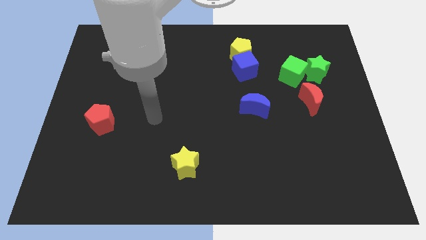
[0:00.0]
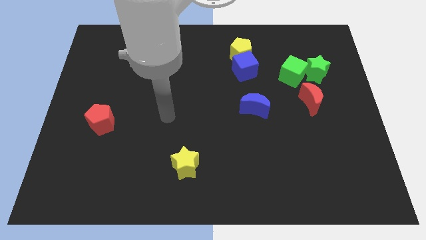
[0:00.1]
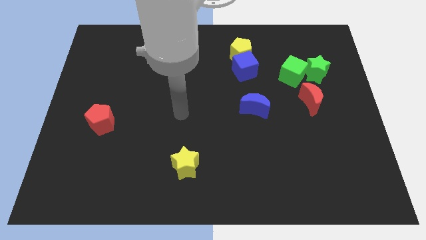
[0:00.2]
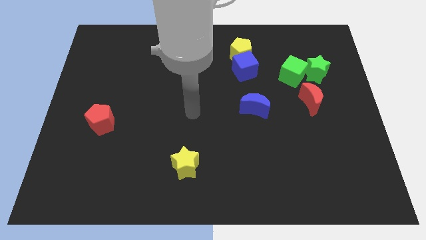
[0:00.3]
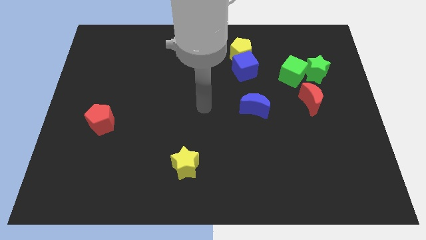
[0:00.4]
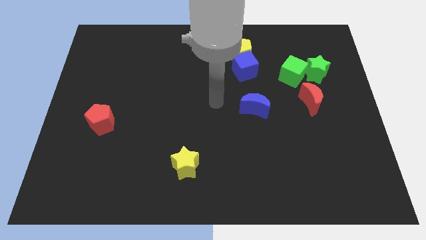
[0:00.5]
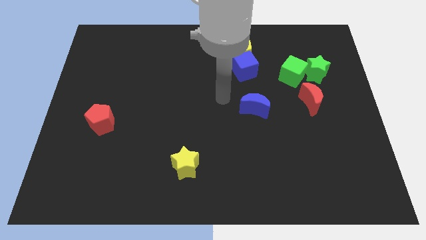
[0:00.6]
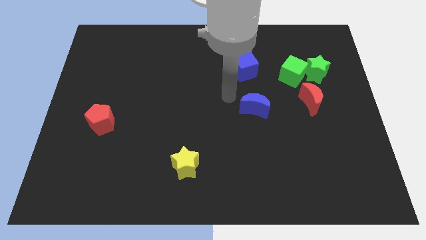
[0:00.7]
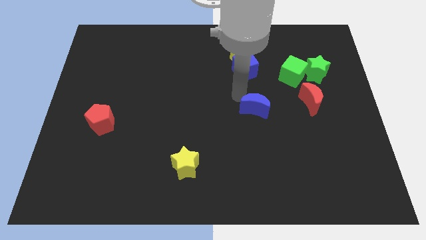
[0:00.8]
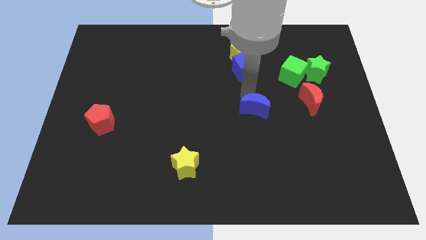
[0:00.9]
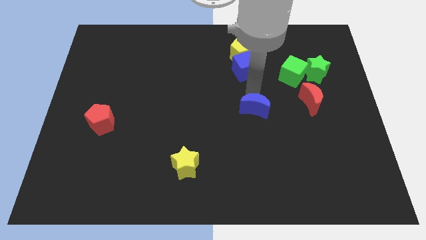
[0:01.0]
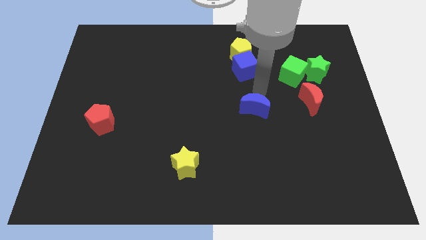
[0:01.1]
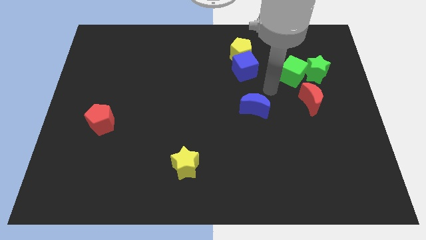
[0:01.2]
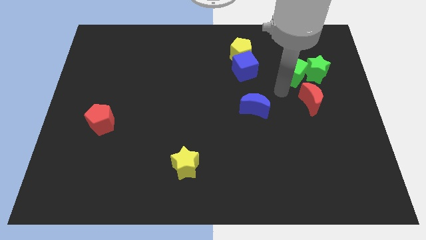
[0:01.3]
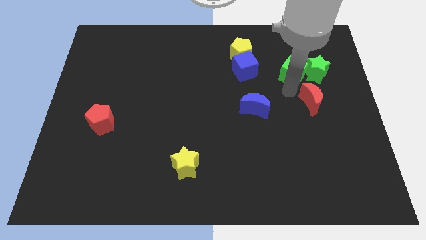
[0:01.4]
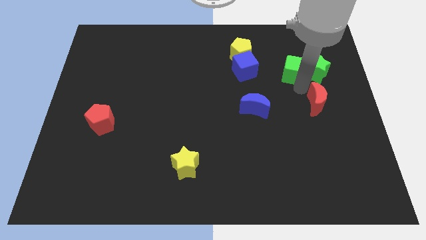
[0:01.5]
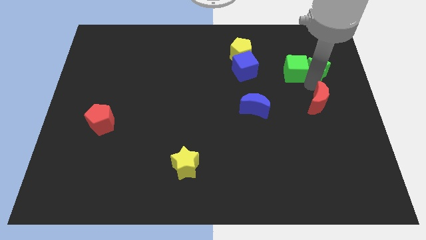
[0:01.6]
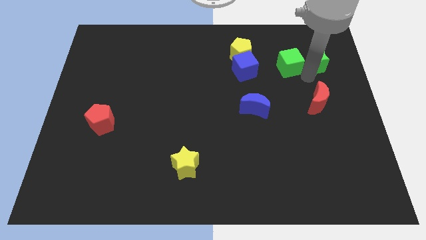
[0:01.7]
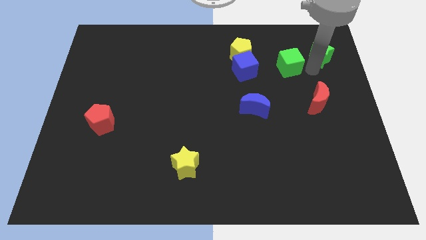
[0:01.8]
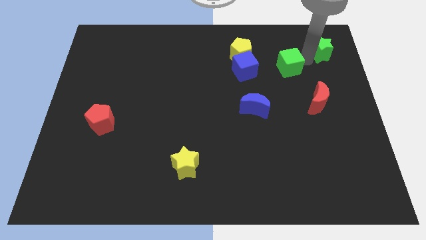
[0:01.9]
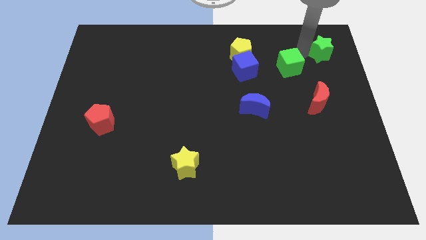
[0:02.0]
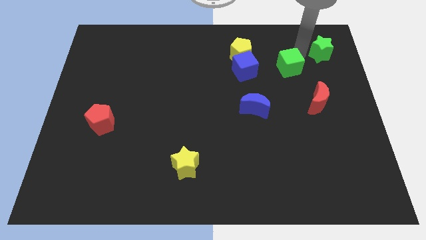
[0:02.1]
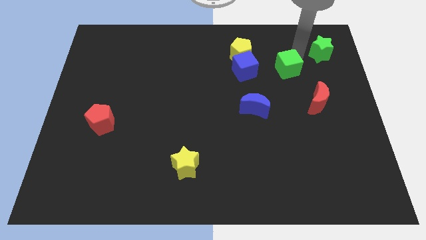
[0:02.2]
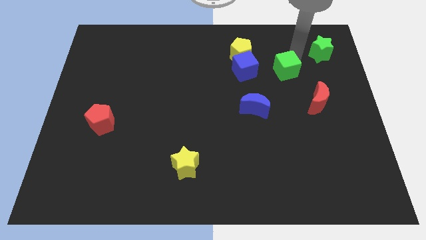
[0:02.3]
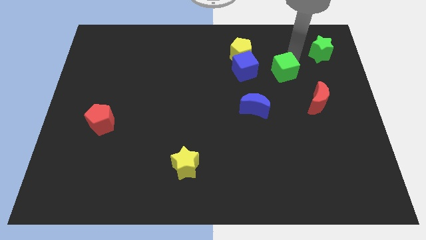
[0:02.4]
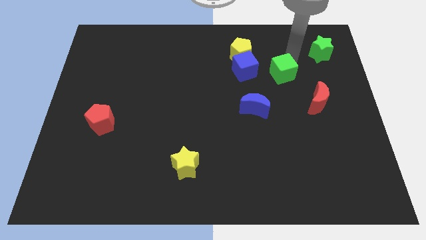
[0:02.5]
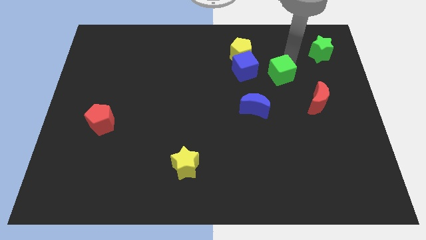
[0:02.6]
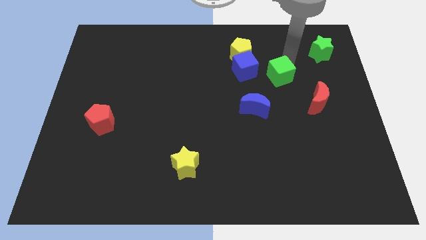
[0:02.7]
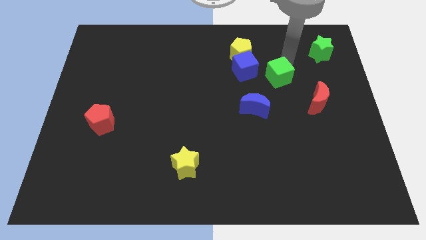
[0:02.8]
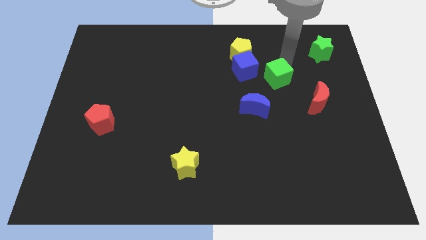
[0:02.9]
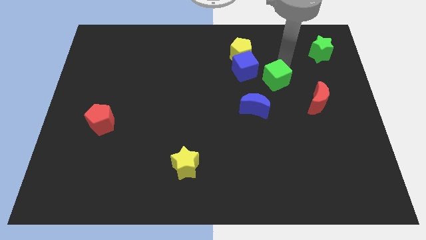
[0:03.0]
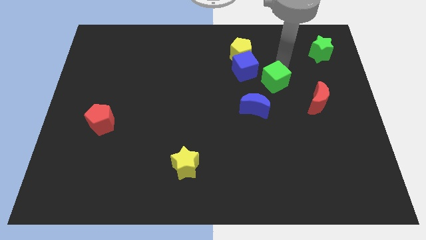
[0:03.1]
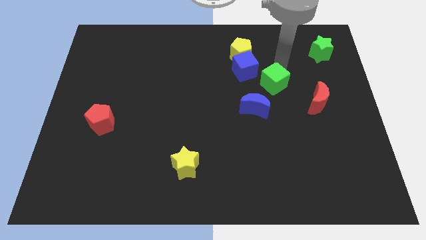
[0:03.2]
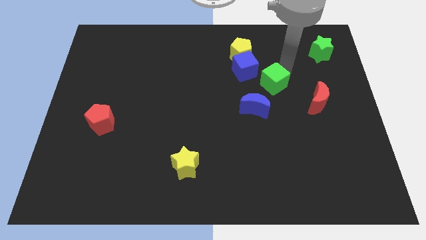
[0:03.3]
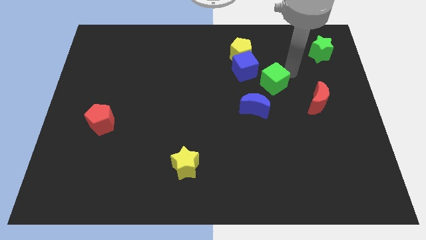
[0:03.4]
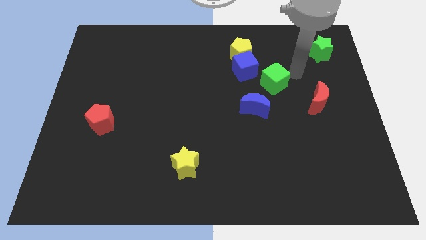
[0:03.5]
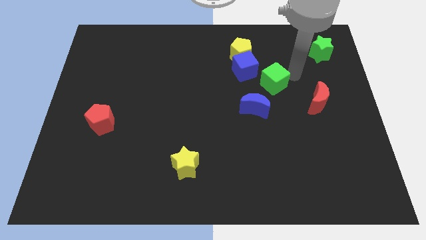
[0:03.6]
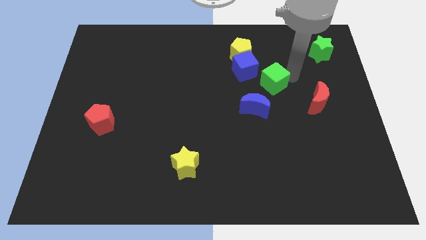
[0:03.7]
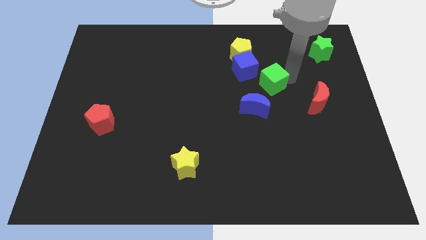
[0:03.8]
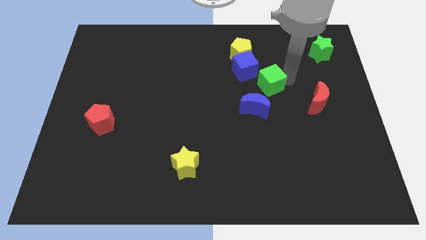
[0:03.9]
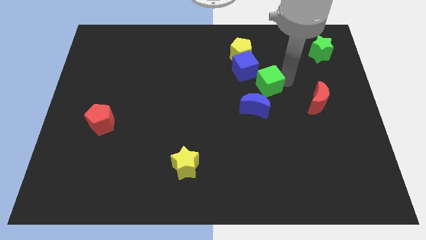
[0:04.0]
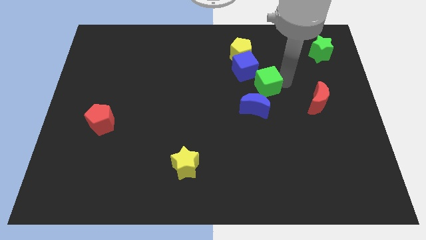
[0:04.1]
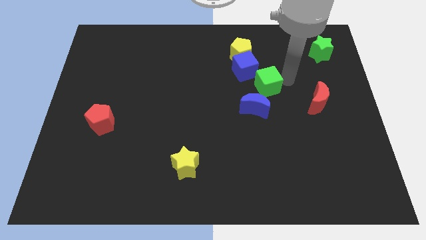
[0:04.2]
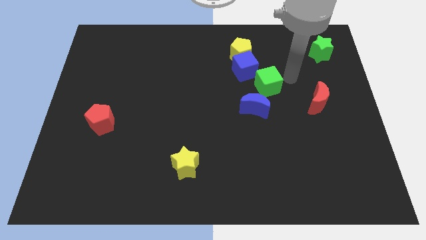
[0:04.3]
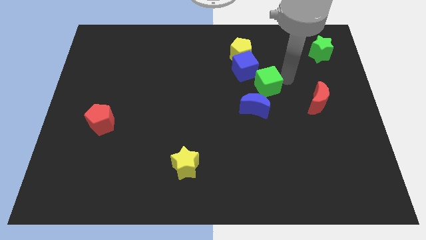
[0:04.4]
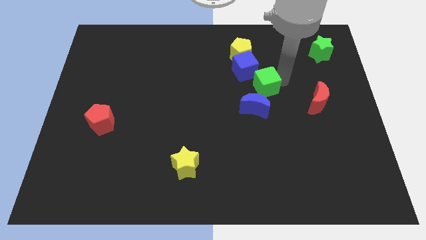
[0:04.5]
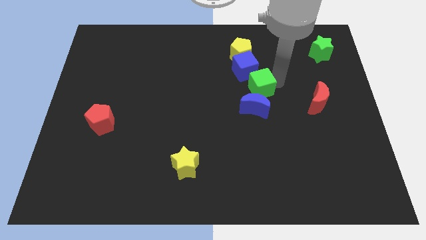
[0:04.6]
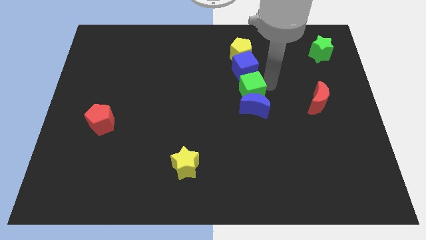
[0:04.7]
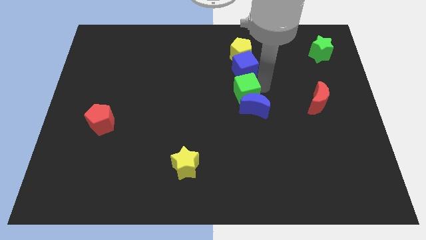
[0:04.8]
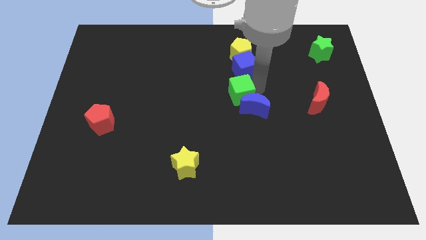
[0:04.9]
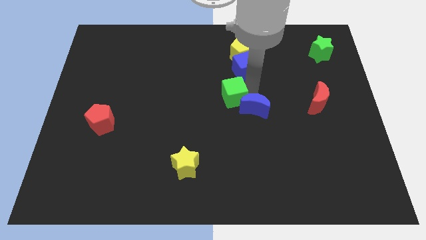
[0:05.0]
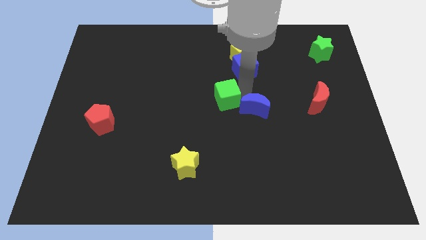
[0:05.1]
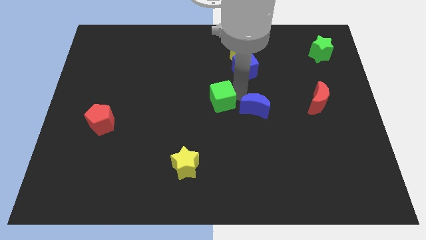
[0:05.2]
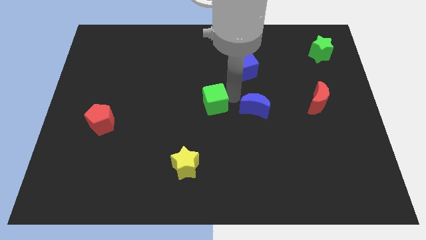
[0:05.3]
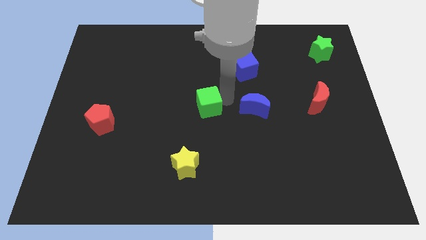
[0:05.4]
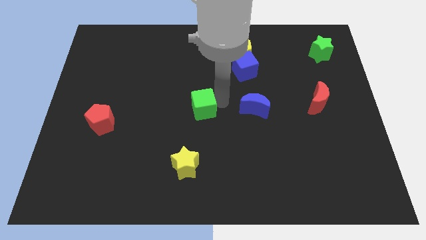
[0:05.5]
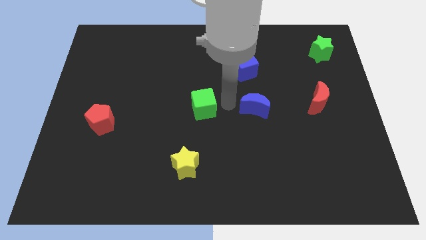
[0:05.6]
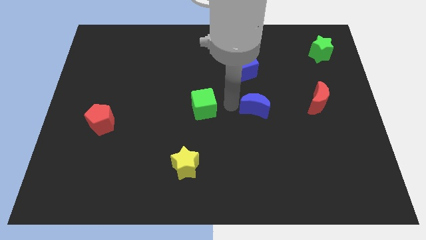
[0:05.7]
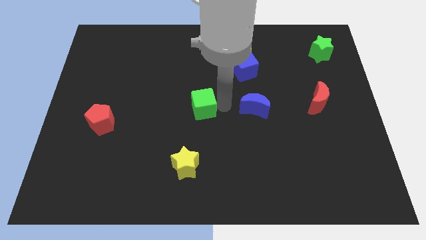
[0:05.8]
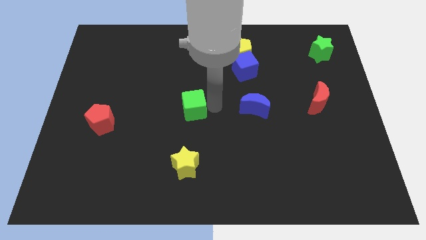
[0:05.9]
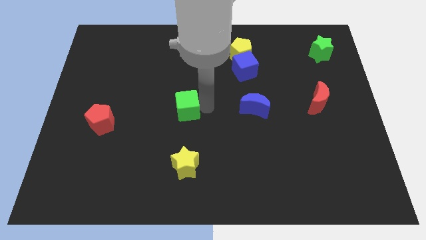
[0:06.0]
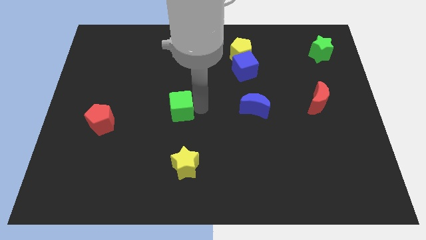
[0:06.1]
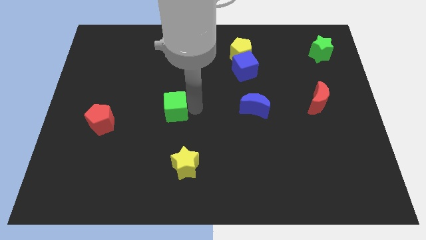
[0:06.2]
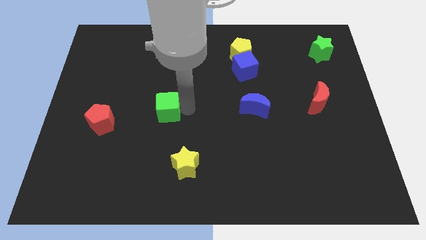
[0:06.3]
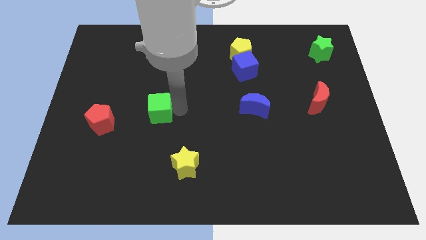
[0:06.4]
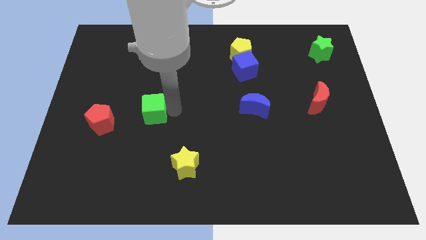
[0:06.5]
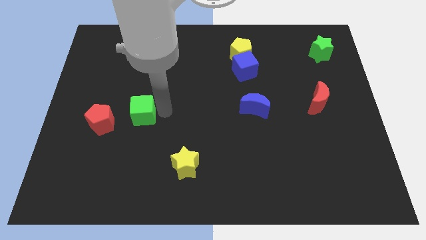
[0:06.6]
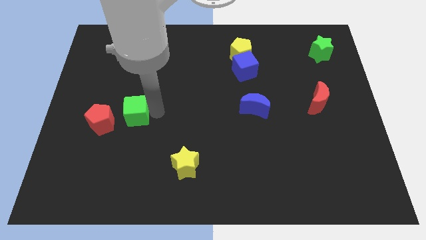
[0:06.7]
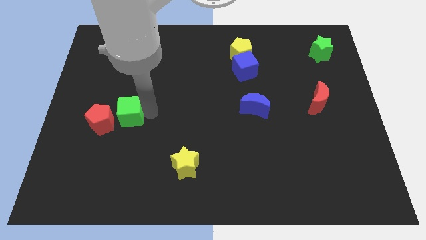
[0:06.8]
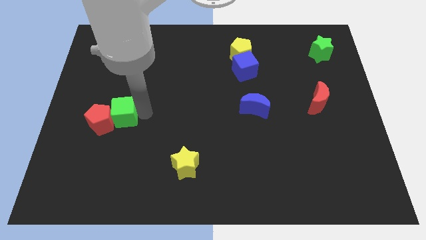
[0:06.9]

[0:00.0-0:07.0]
slide the green cube close to the red pentagon

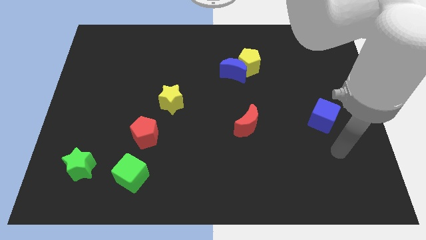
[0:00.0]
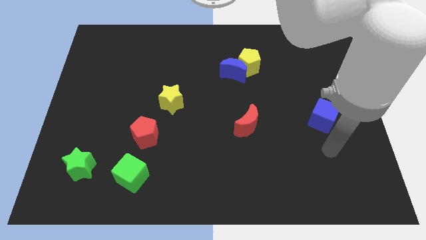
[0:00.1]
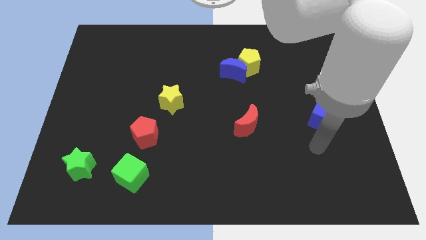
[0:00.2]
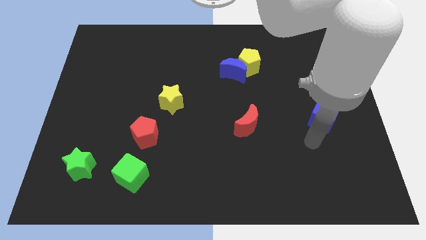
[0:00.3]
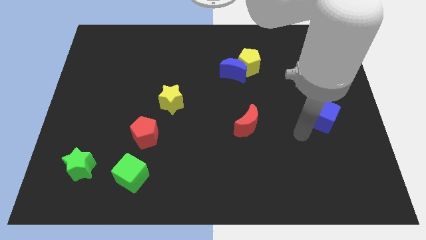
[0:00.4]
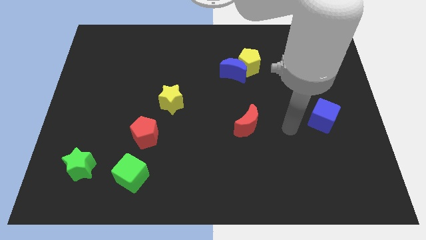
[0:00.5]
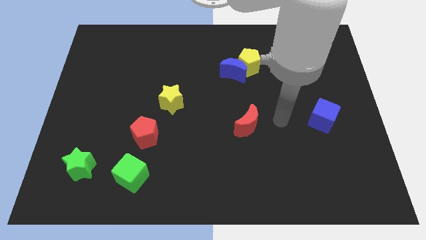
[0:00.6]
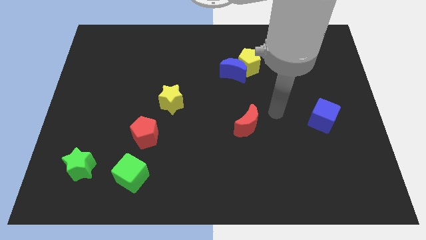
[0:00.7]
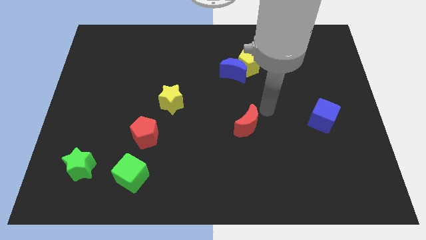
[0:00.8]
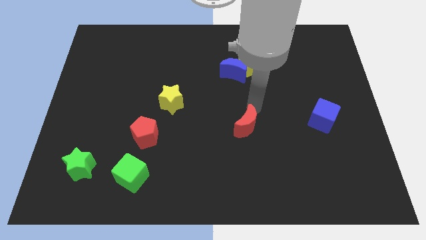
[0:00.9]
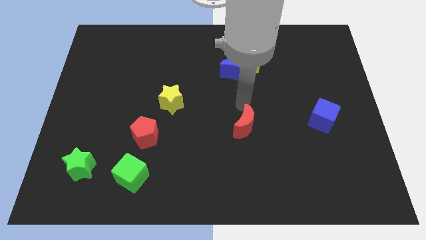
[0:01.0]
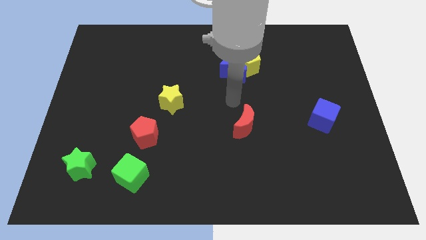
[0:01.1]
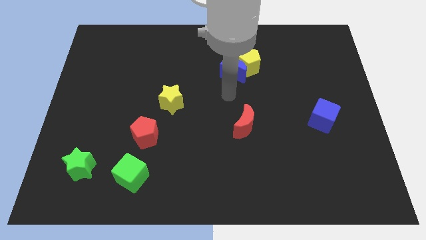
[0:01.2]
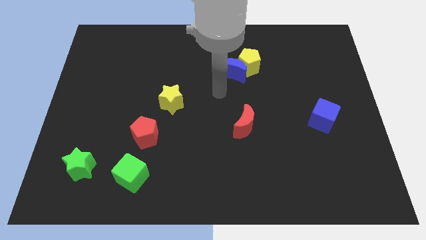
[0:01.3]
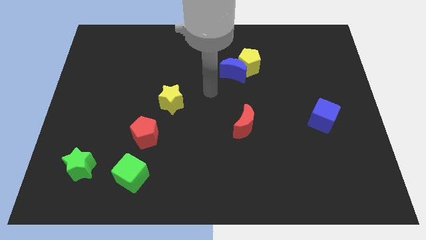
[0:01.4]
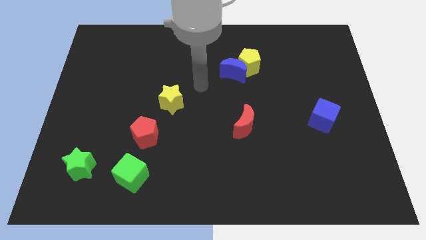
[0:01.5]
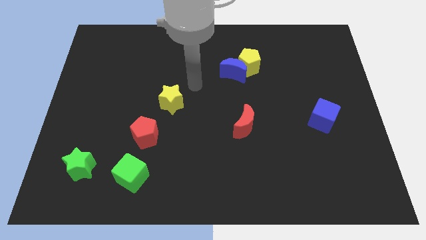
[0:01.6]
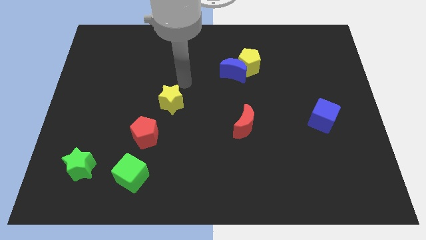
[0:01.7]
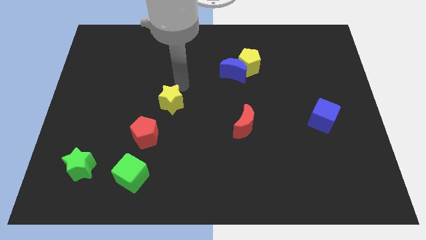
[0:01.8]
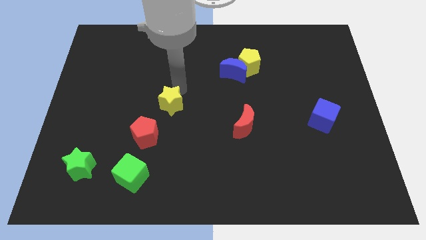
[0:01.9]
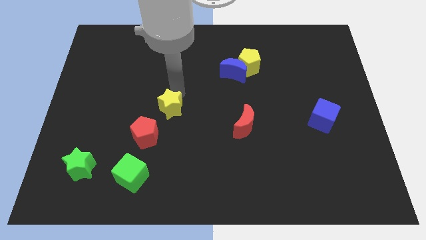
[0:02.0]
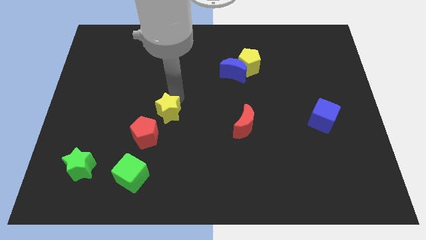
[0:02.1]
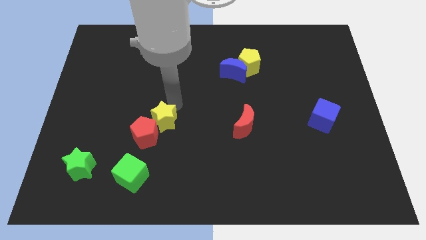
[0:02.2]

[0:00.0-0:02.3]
put the yellow star next to the red pentagon
